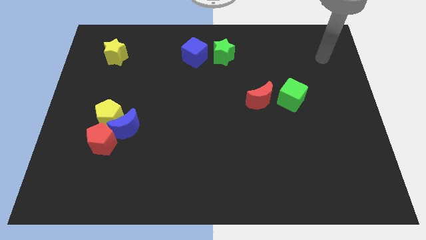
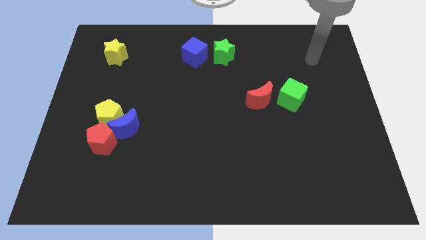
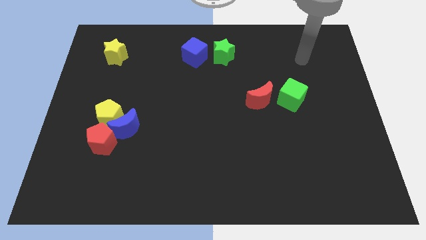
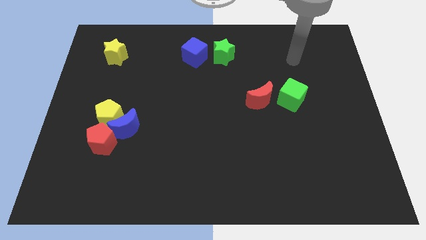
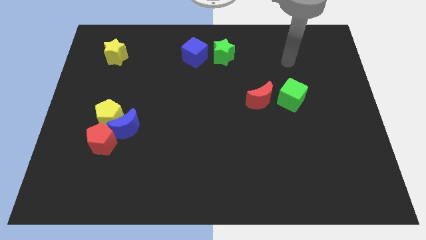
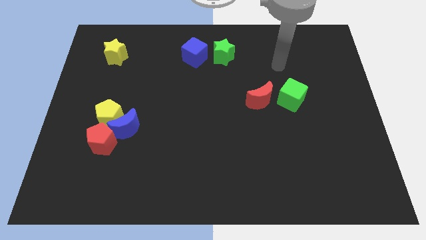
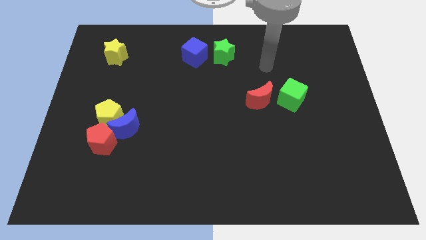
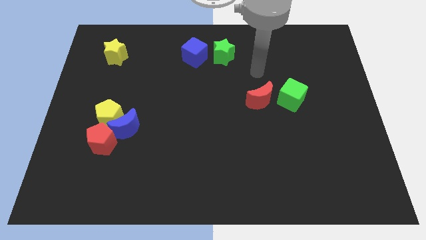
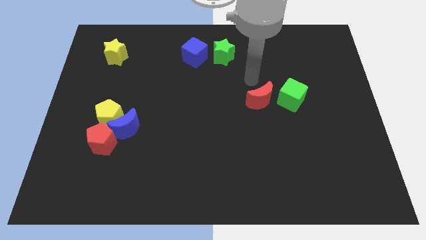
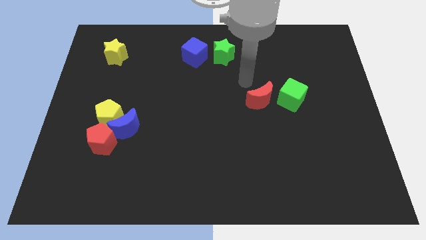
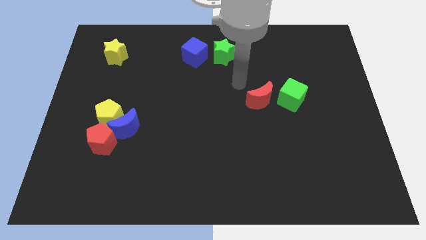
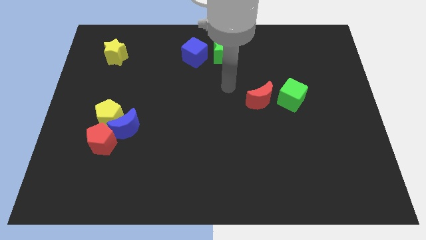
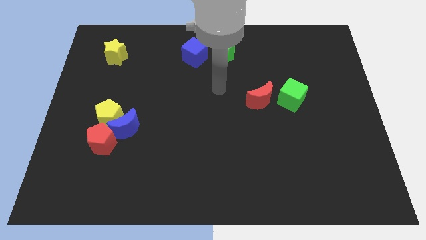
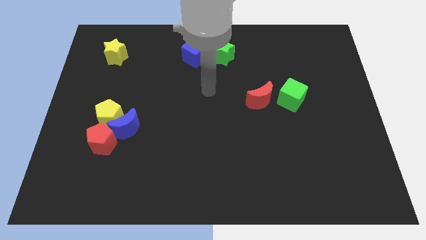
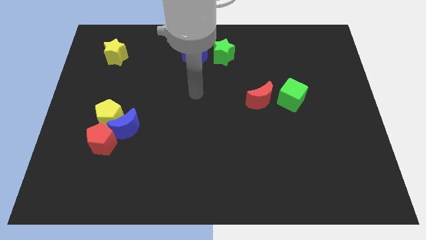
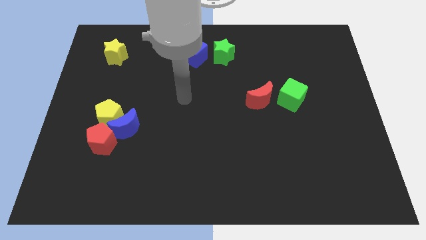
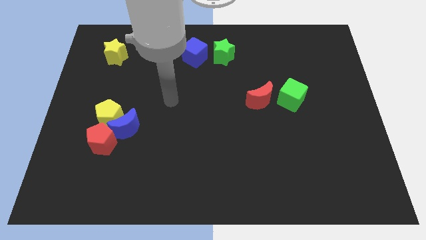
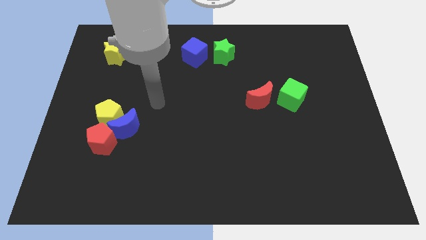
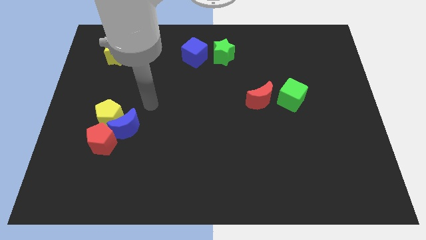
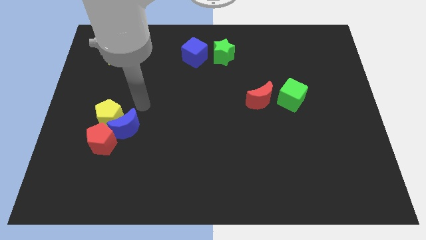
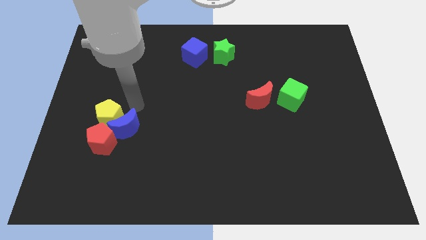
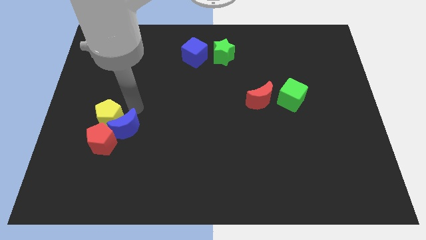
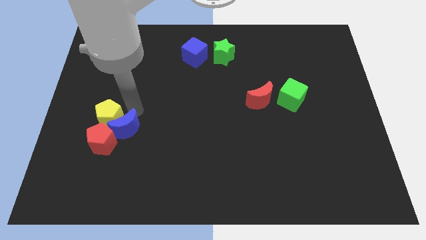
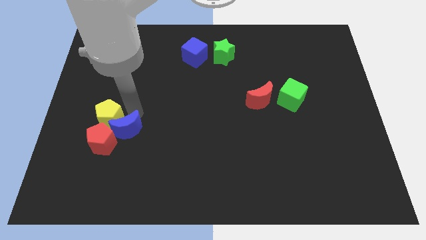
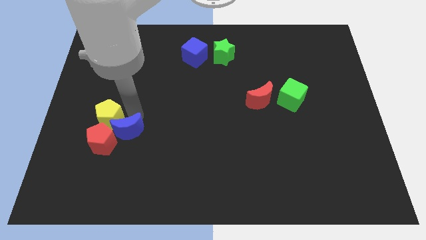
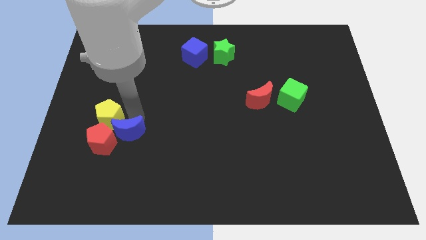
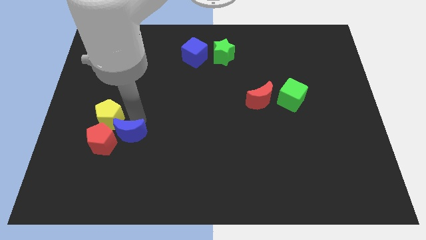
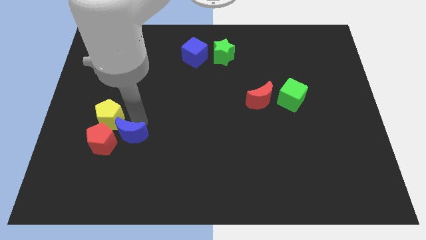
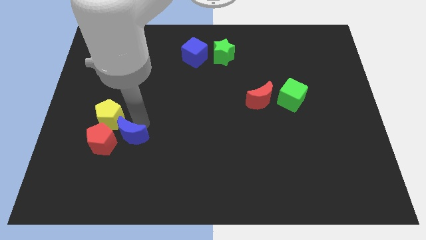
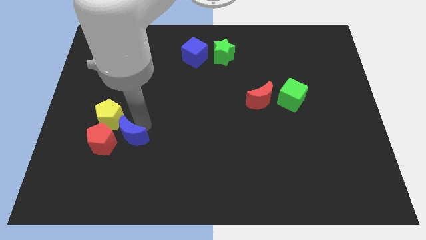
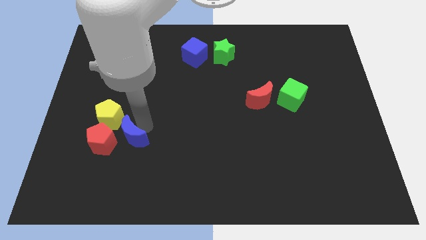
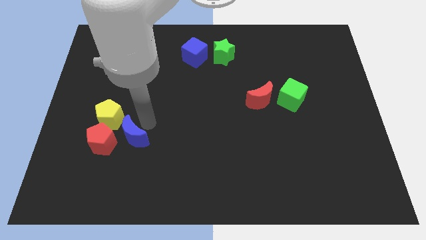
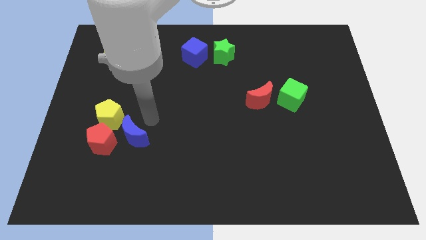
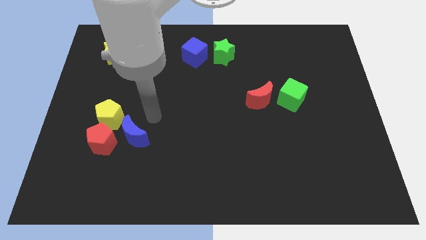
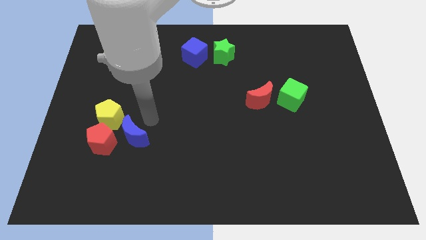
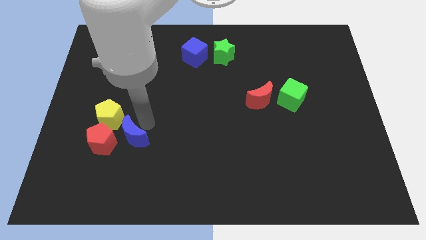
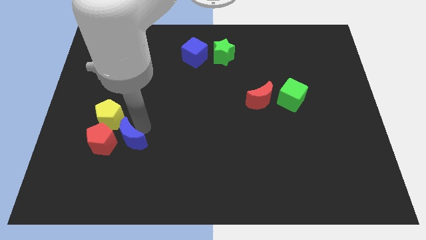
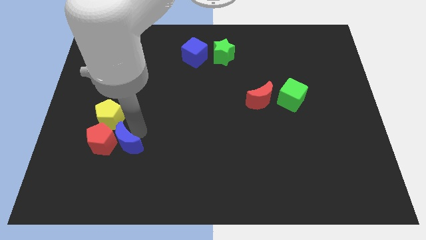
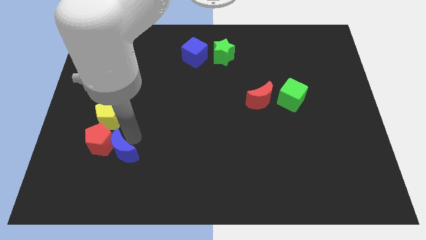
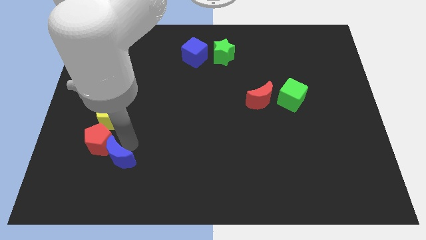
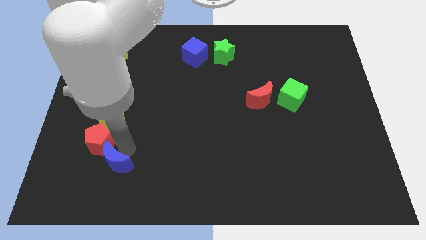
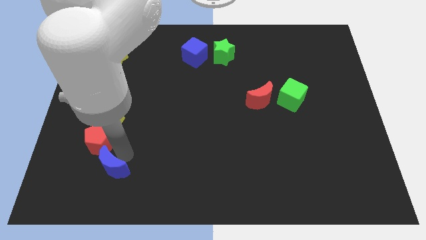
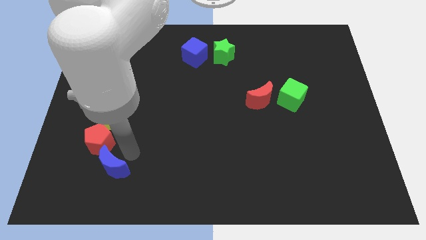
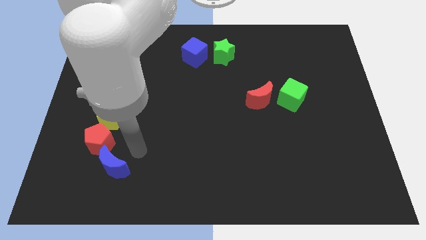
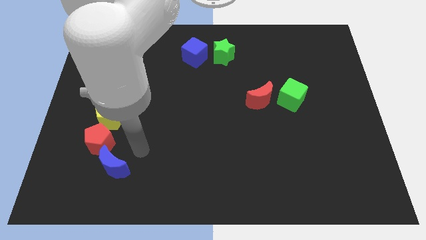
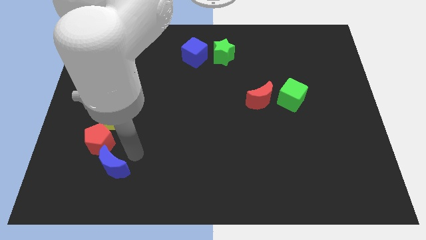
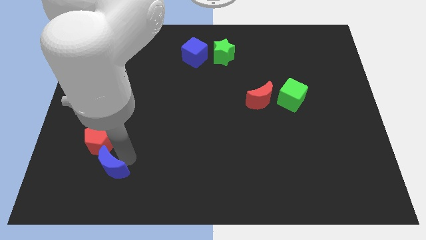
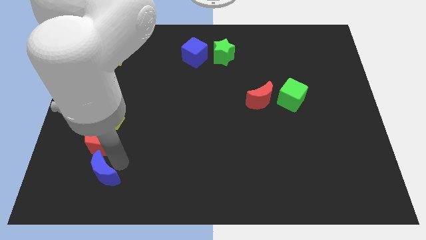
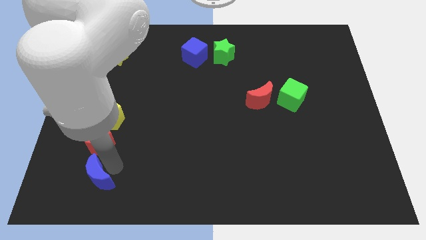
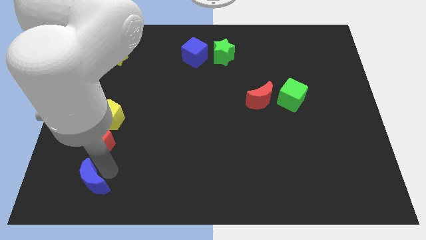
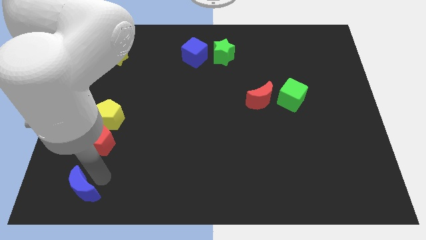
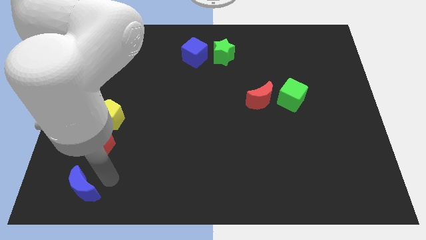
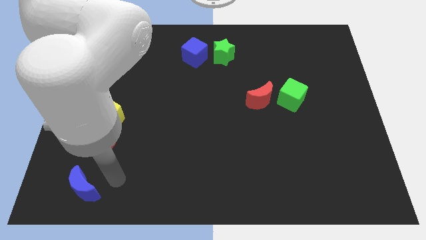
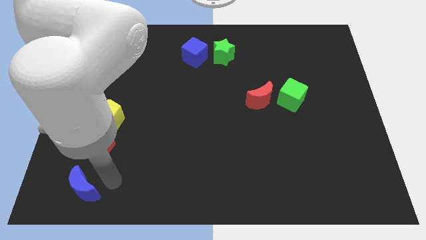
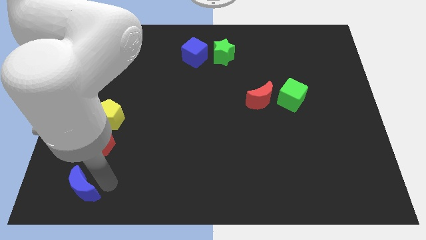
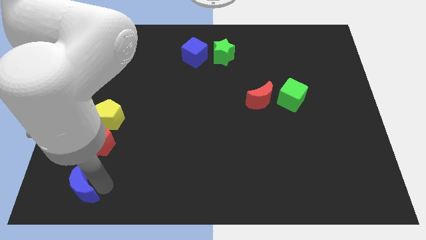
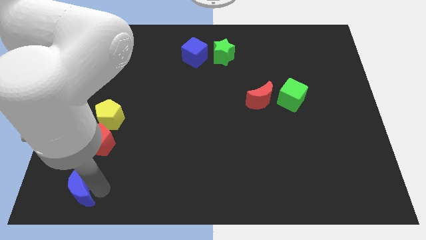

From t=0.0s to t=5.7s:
move the blue moon to the bottom left

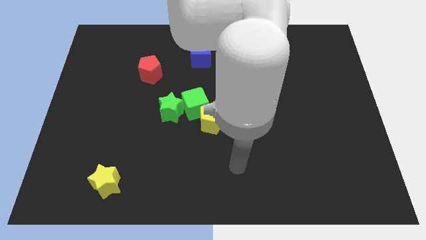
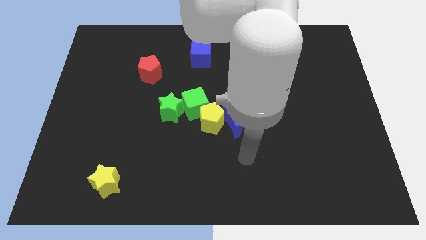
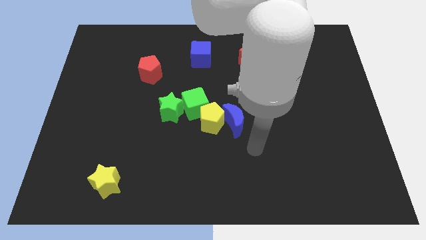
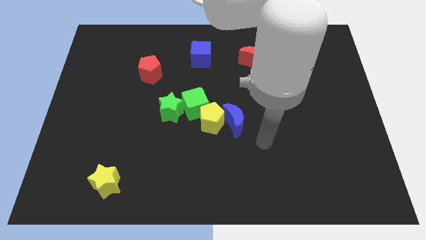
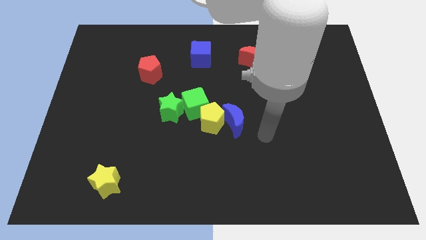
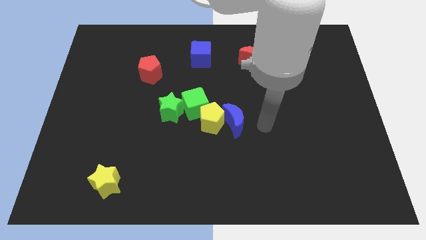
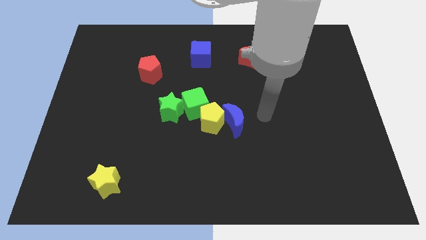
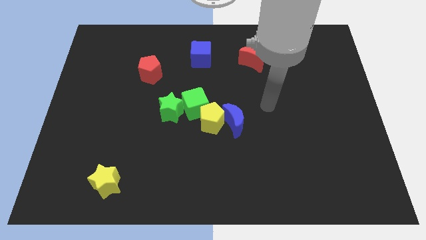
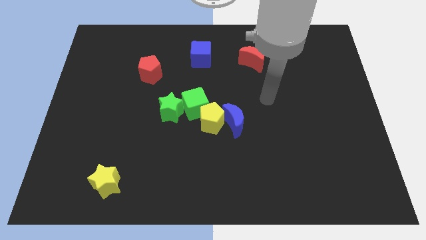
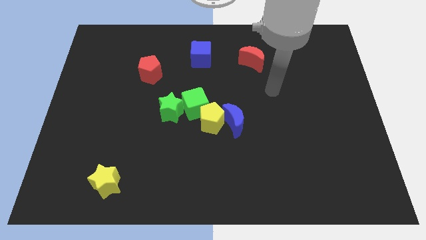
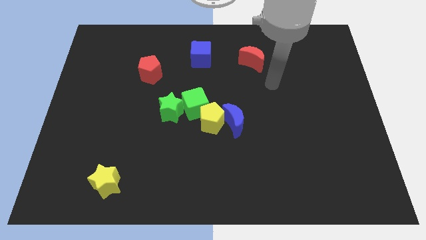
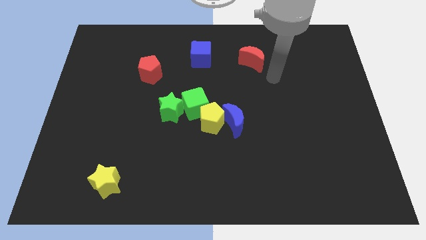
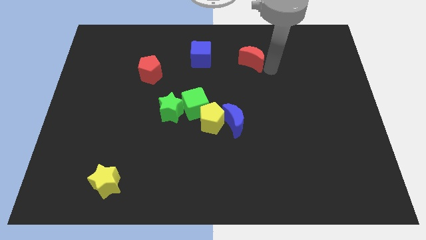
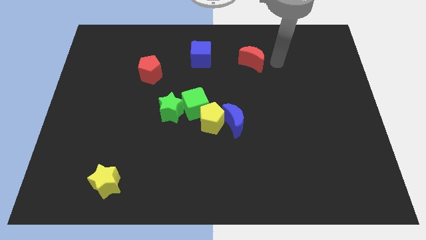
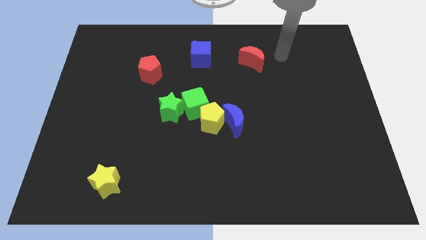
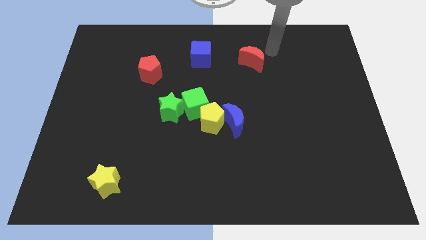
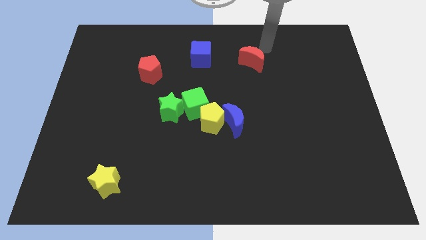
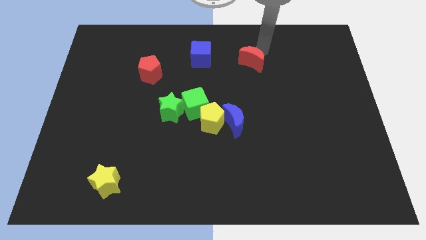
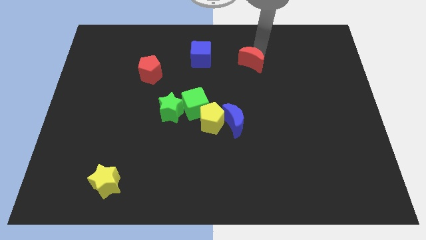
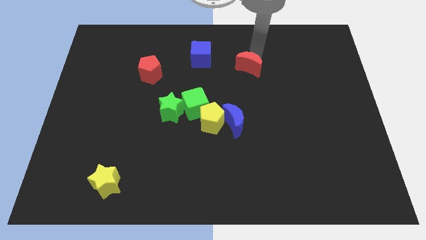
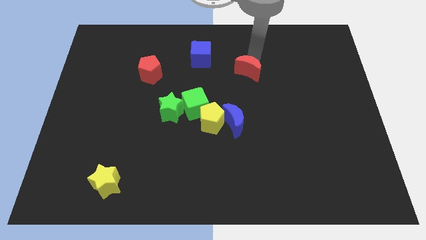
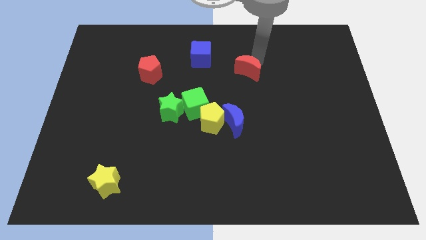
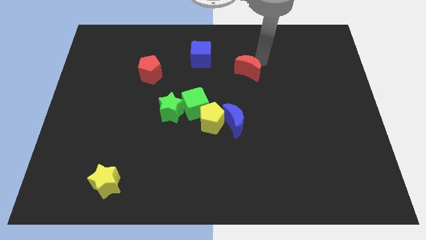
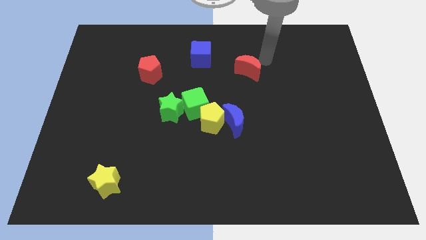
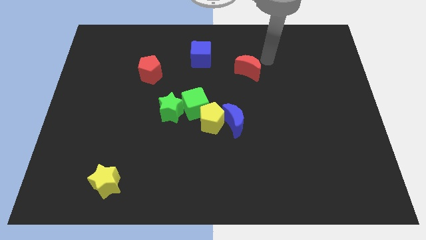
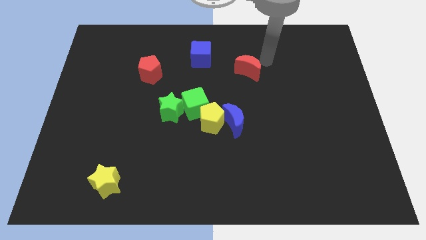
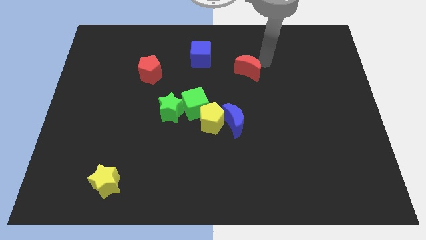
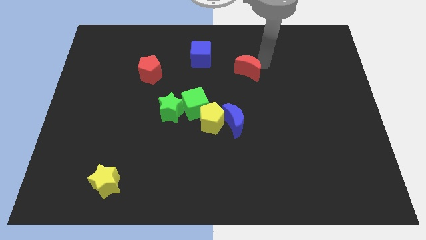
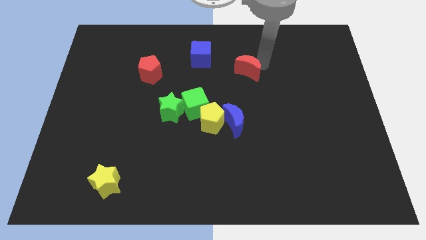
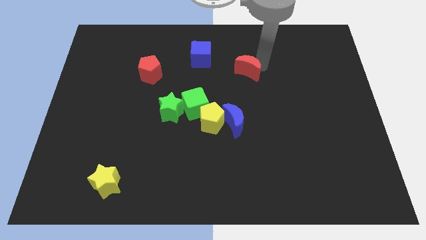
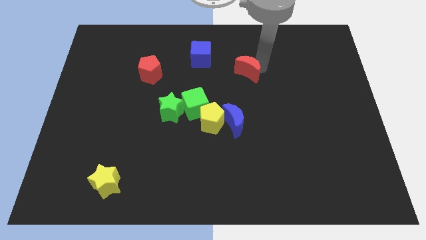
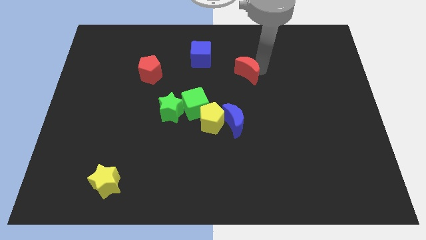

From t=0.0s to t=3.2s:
slide the red moon to the middle of the board
